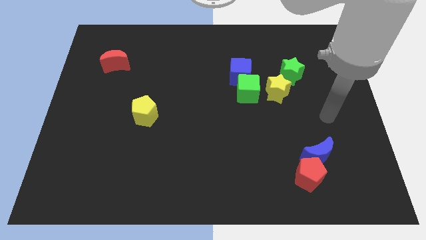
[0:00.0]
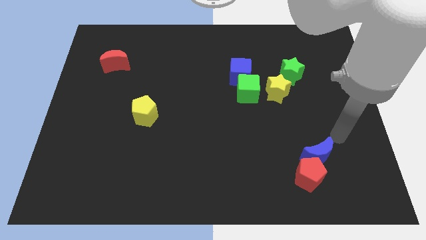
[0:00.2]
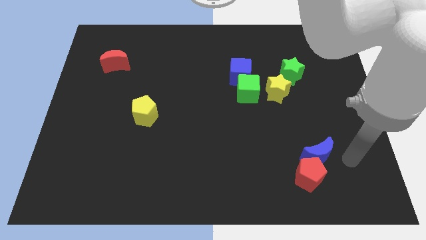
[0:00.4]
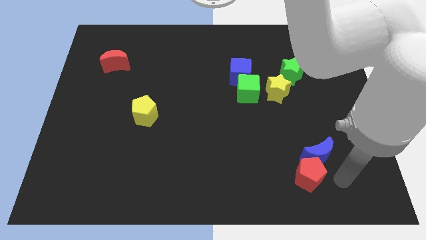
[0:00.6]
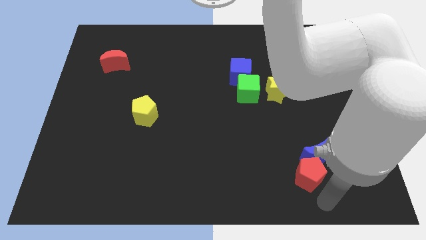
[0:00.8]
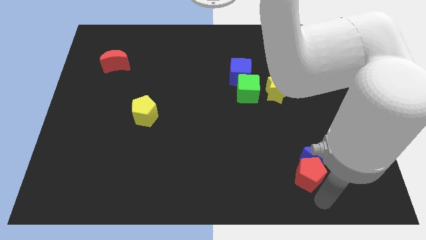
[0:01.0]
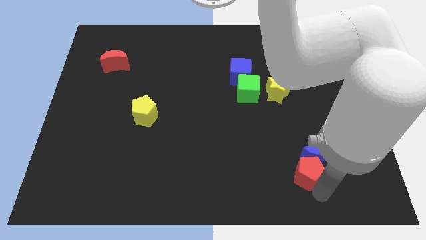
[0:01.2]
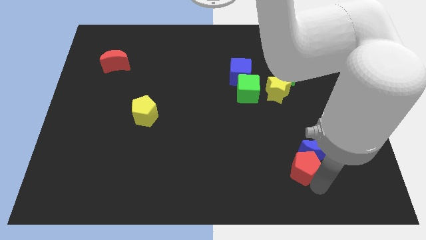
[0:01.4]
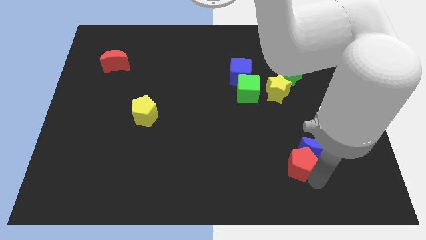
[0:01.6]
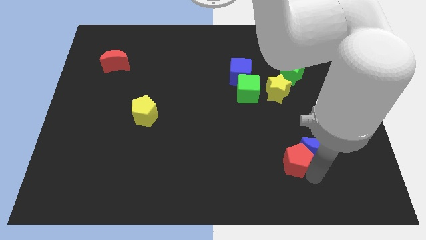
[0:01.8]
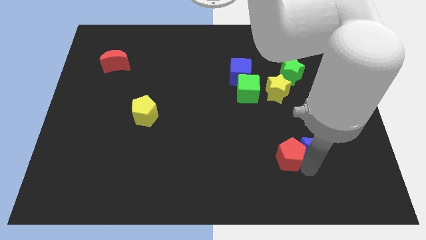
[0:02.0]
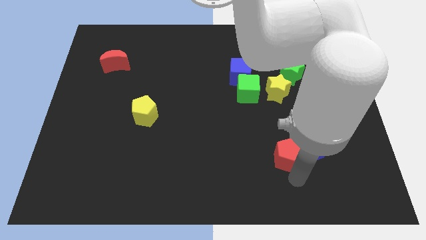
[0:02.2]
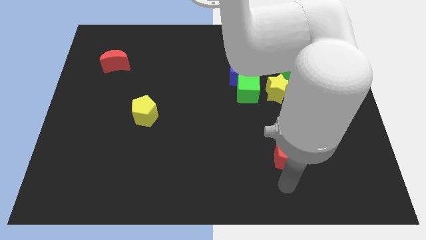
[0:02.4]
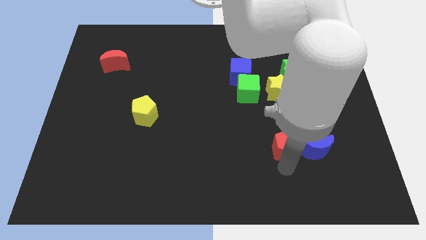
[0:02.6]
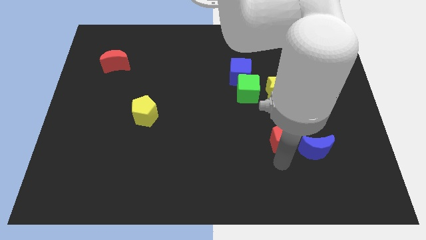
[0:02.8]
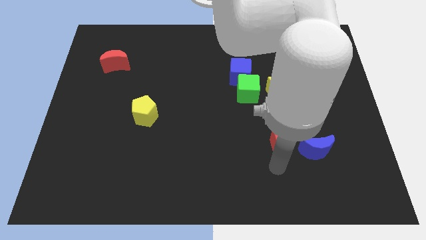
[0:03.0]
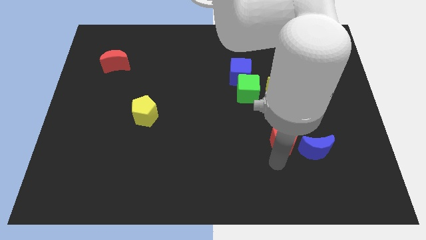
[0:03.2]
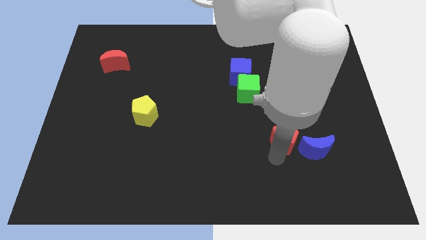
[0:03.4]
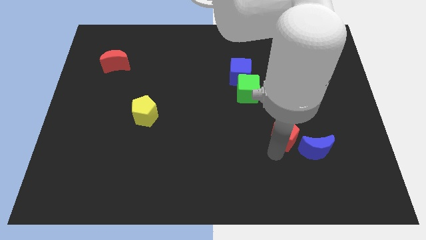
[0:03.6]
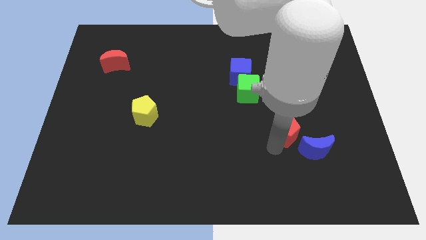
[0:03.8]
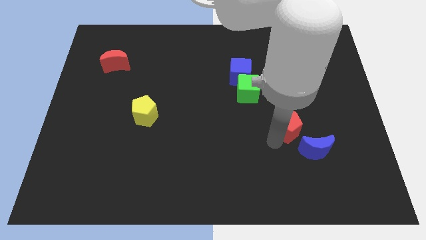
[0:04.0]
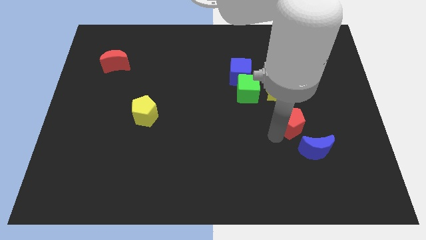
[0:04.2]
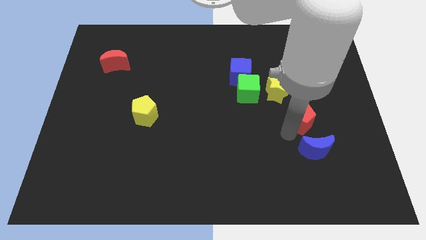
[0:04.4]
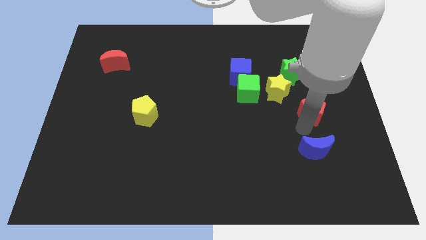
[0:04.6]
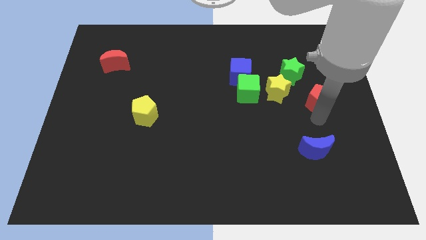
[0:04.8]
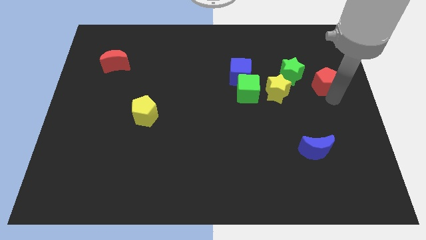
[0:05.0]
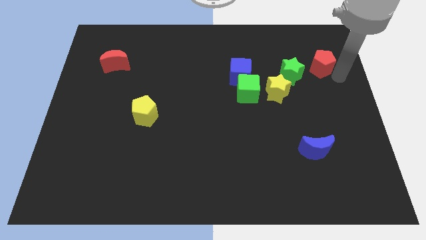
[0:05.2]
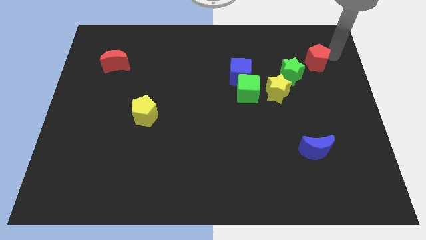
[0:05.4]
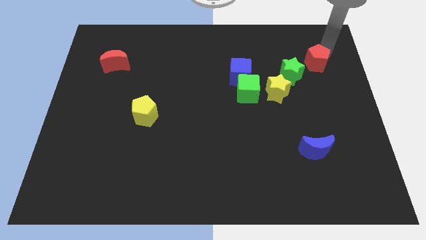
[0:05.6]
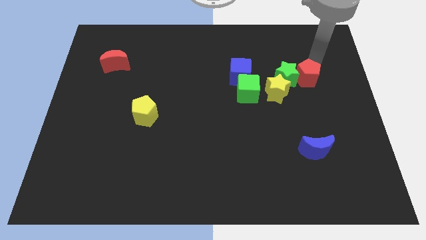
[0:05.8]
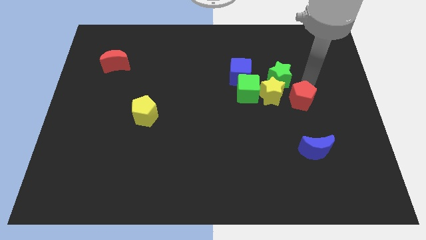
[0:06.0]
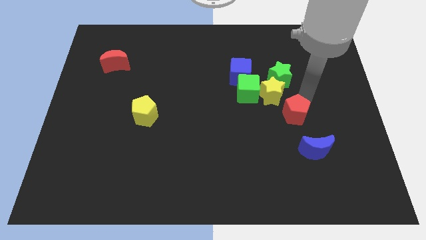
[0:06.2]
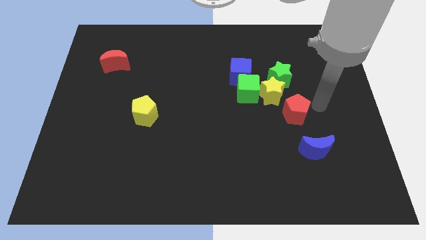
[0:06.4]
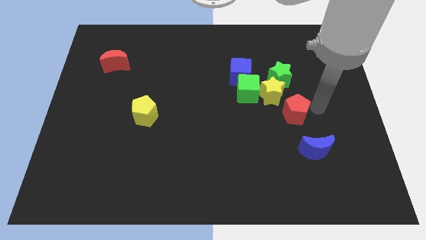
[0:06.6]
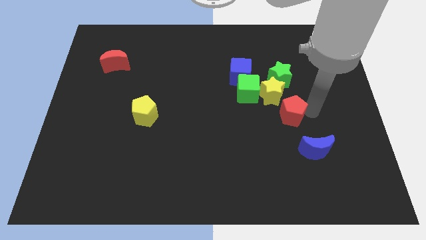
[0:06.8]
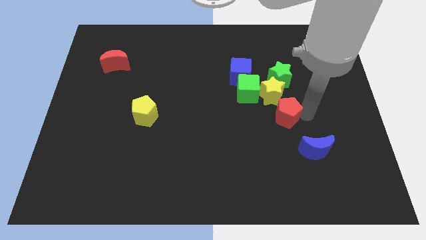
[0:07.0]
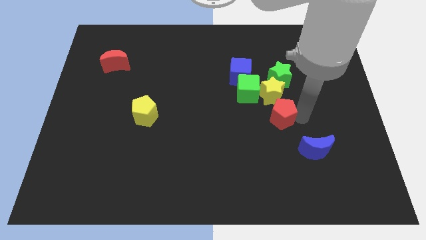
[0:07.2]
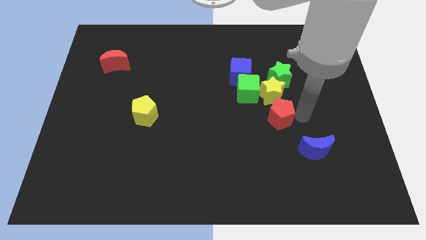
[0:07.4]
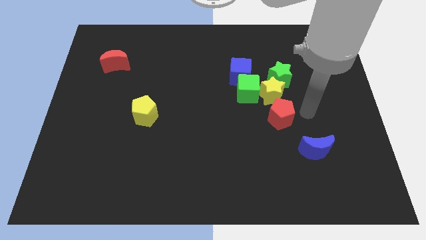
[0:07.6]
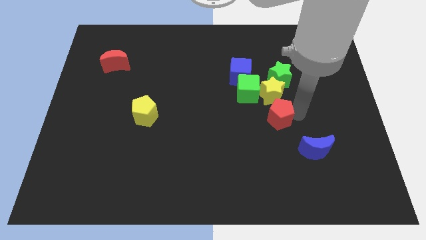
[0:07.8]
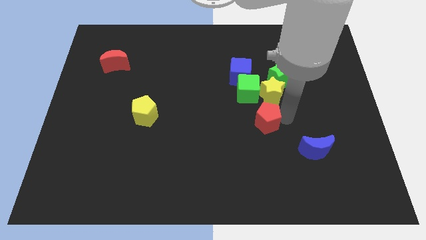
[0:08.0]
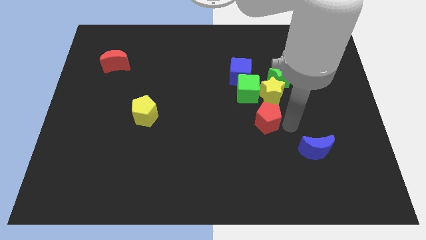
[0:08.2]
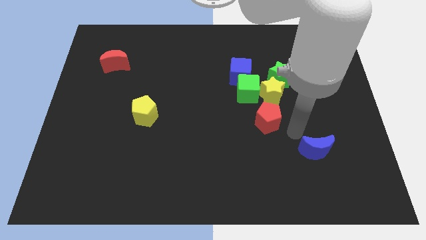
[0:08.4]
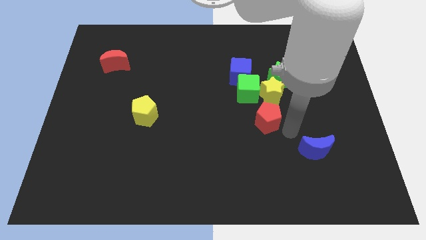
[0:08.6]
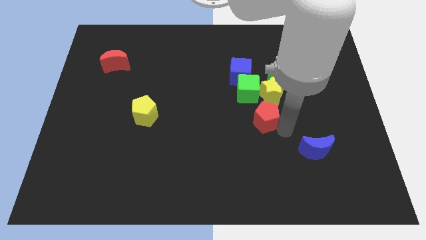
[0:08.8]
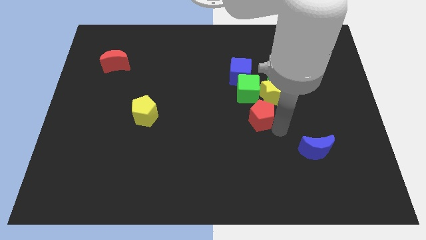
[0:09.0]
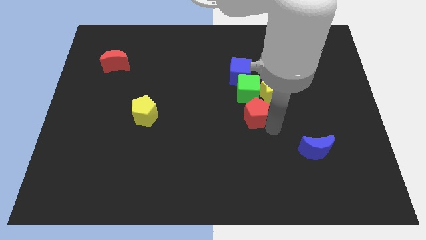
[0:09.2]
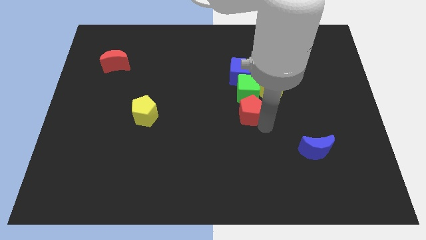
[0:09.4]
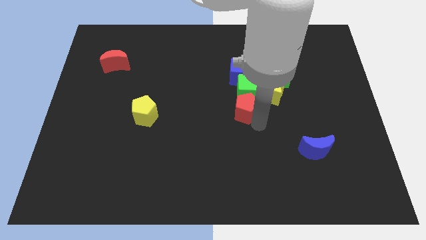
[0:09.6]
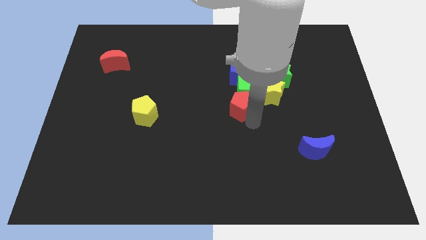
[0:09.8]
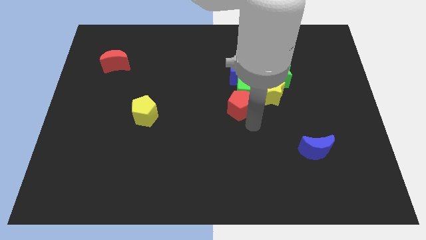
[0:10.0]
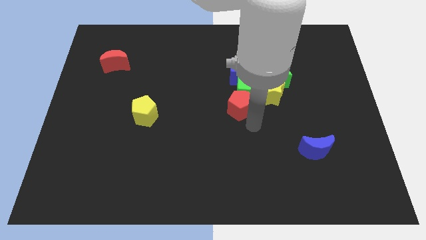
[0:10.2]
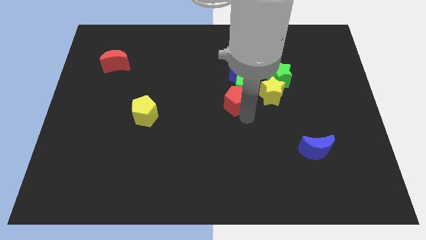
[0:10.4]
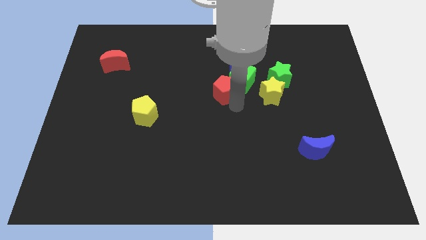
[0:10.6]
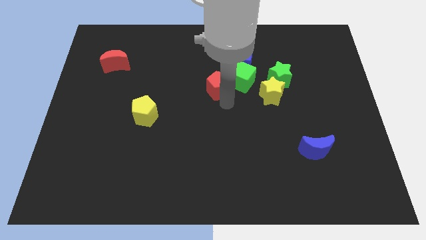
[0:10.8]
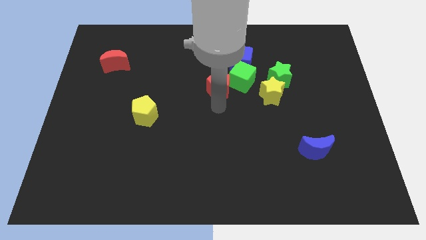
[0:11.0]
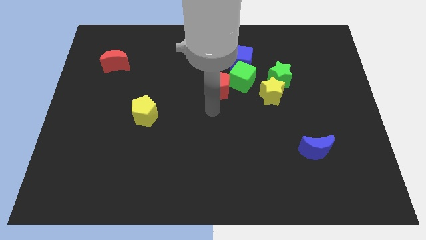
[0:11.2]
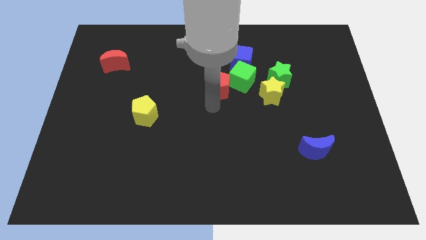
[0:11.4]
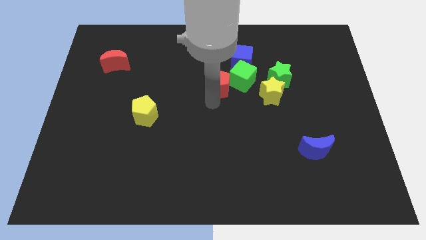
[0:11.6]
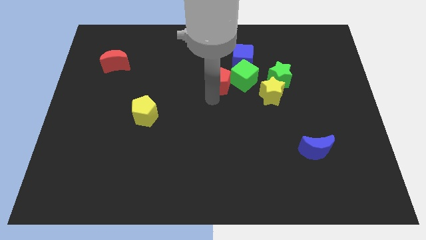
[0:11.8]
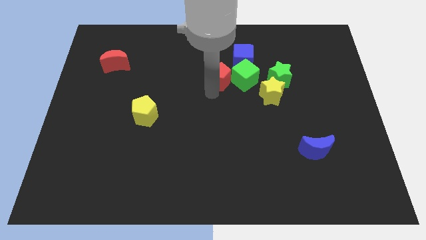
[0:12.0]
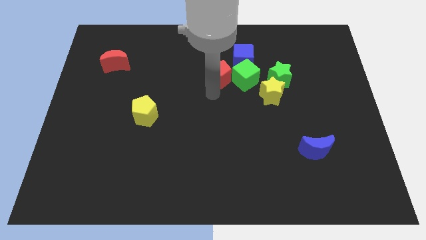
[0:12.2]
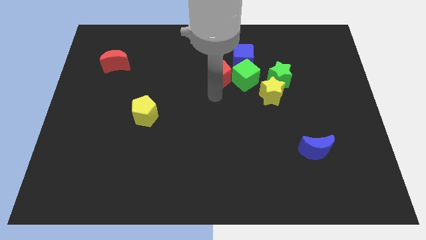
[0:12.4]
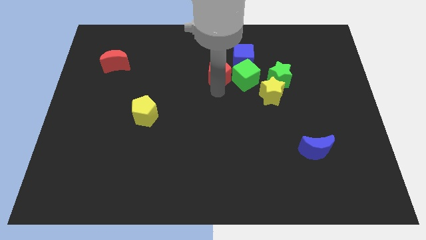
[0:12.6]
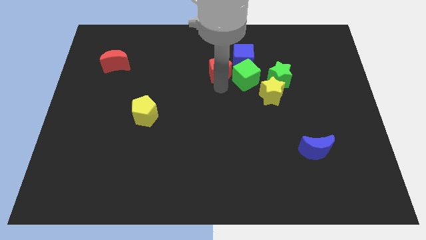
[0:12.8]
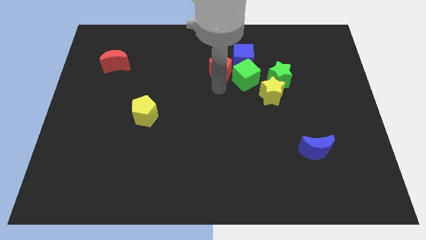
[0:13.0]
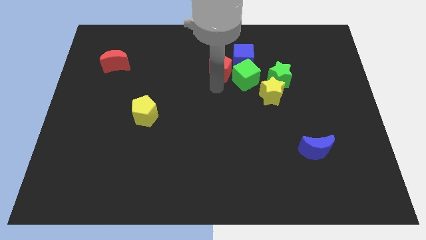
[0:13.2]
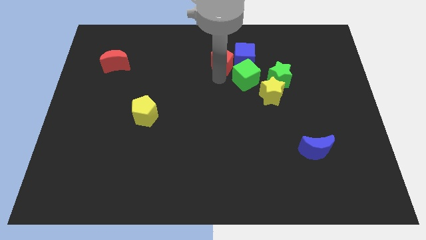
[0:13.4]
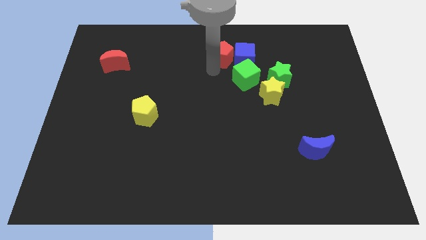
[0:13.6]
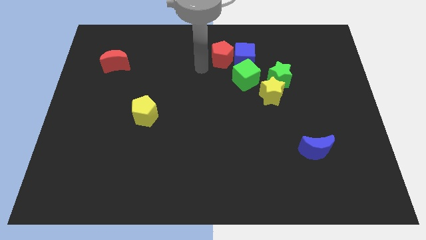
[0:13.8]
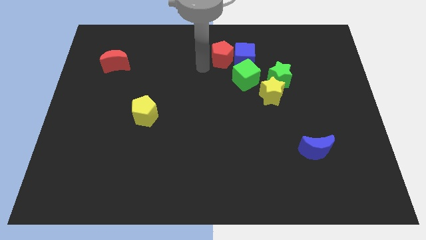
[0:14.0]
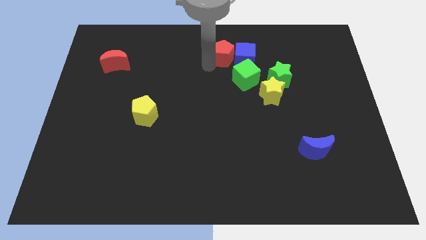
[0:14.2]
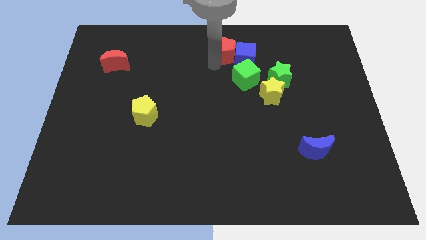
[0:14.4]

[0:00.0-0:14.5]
push the red pentagon to the top side of the green cube
